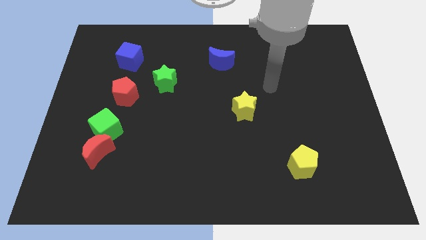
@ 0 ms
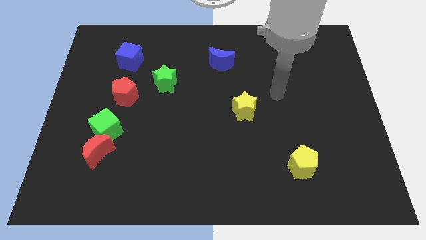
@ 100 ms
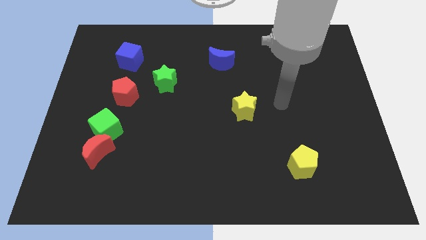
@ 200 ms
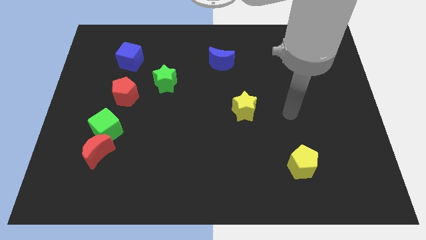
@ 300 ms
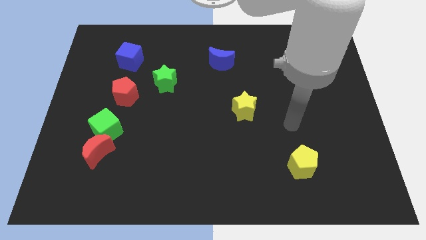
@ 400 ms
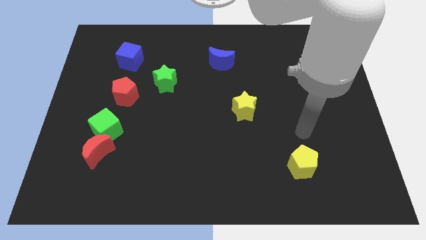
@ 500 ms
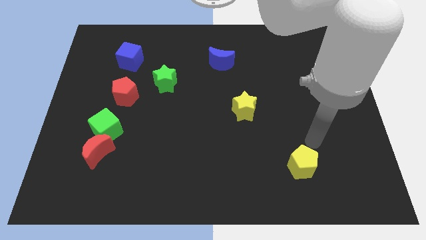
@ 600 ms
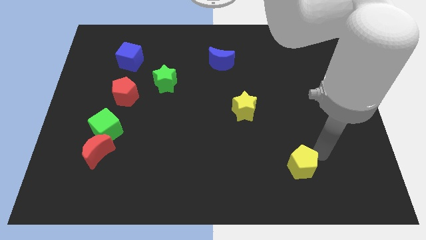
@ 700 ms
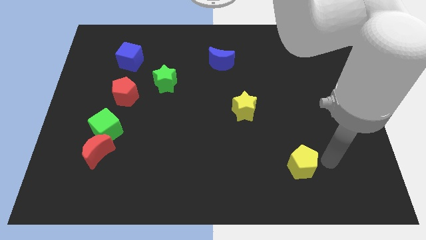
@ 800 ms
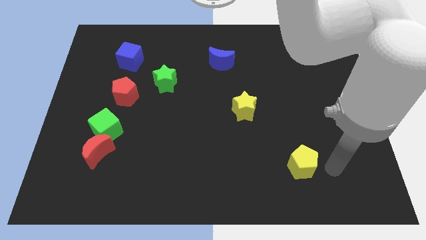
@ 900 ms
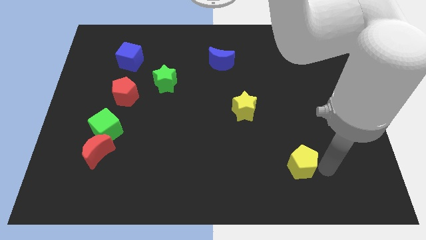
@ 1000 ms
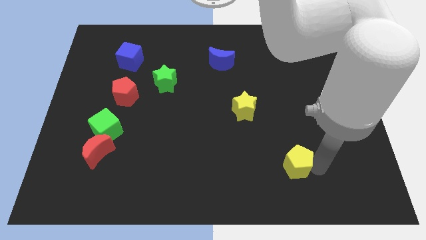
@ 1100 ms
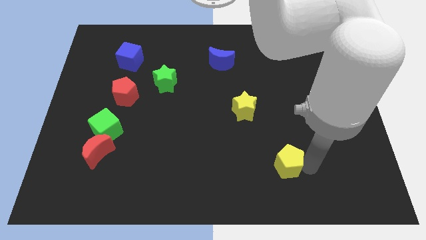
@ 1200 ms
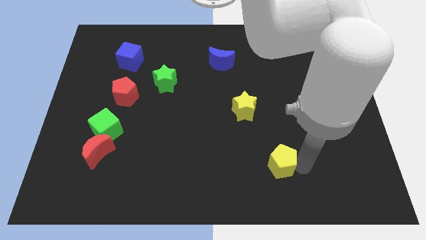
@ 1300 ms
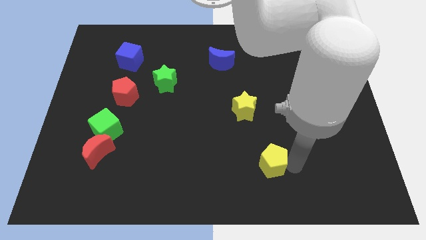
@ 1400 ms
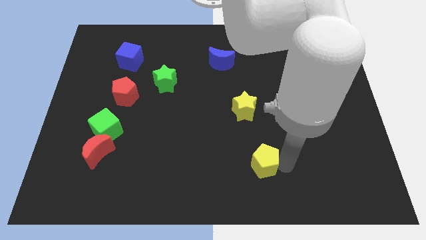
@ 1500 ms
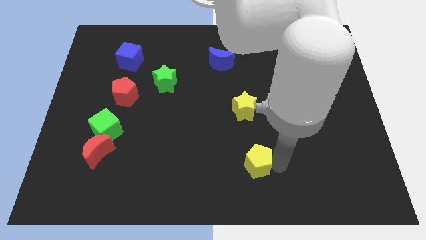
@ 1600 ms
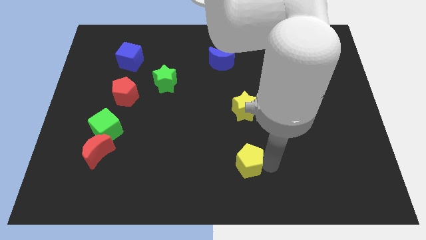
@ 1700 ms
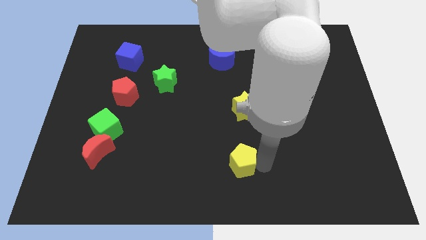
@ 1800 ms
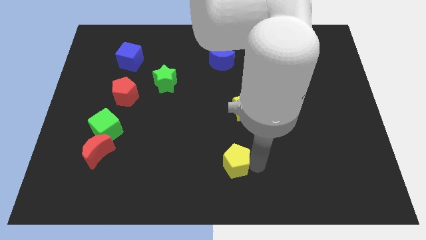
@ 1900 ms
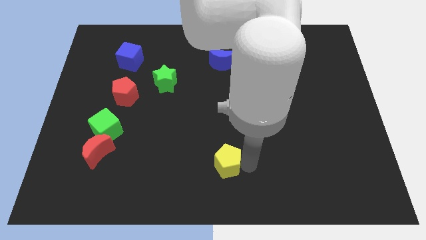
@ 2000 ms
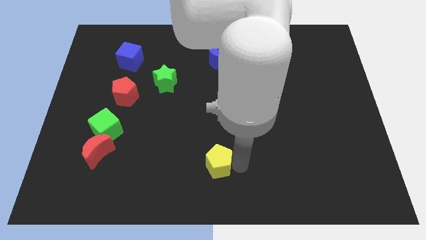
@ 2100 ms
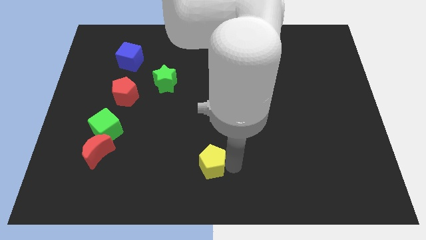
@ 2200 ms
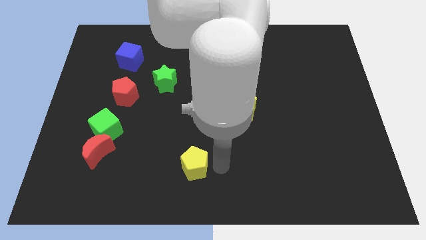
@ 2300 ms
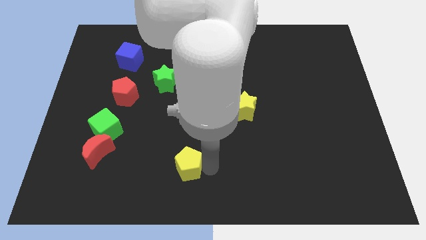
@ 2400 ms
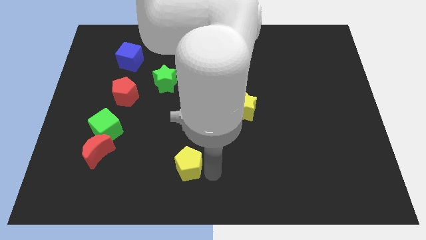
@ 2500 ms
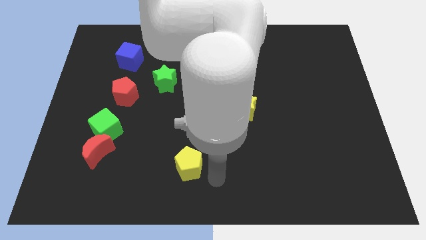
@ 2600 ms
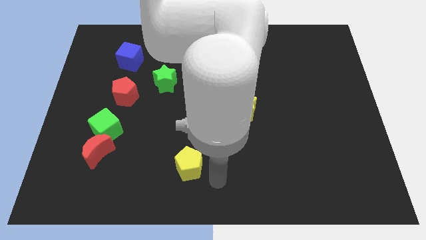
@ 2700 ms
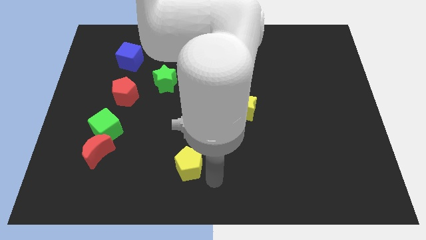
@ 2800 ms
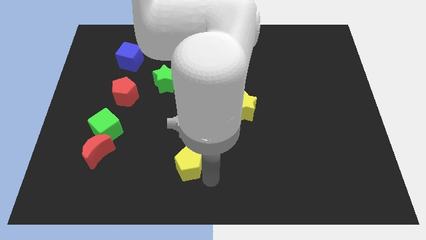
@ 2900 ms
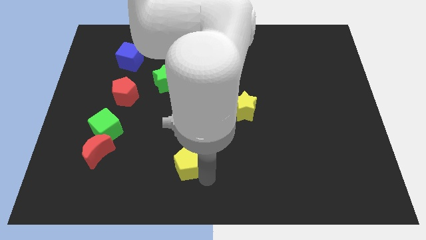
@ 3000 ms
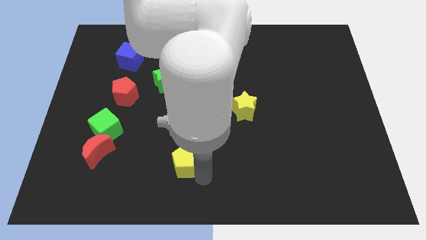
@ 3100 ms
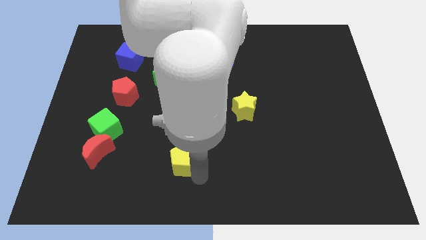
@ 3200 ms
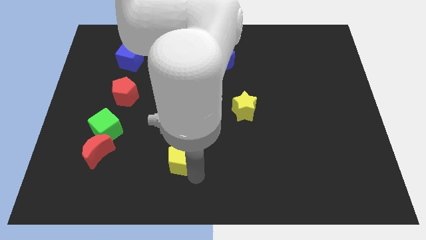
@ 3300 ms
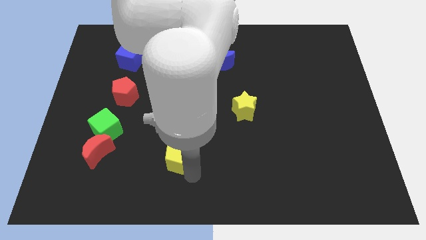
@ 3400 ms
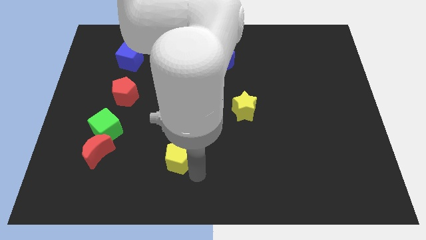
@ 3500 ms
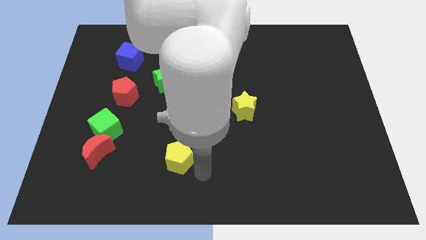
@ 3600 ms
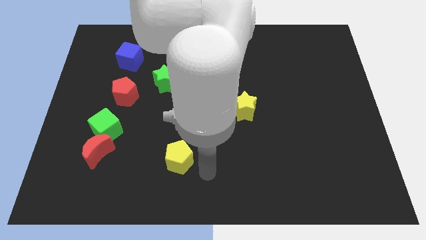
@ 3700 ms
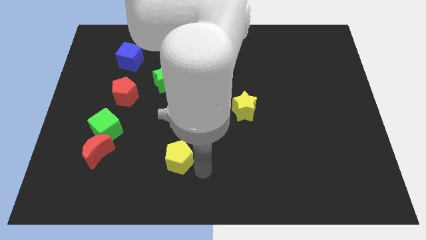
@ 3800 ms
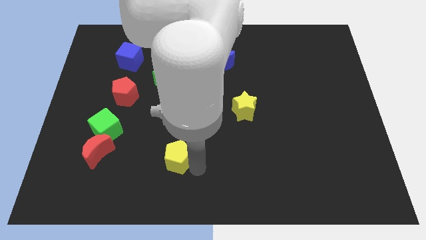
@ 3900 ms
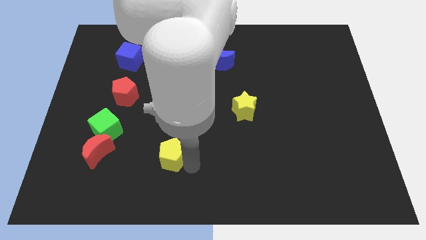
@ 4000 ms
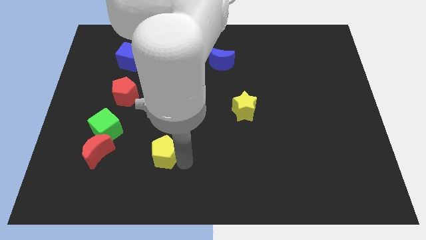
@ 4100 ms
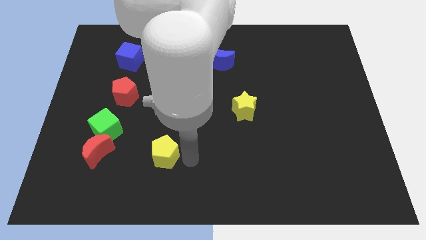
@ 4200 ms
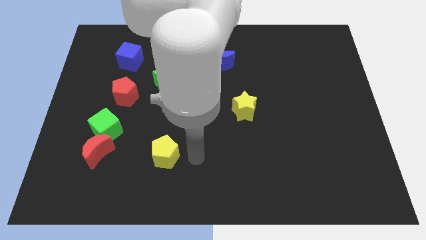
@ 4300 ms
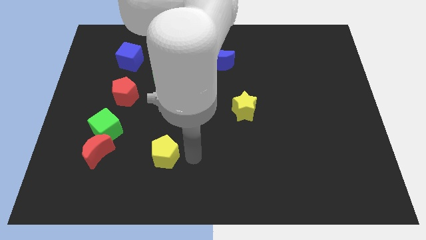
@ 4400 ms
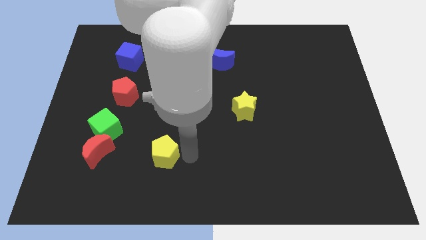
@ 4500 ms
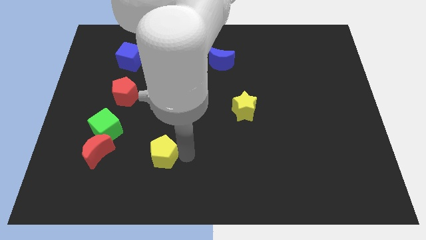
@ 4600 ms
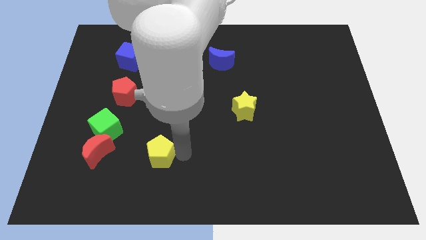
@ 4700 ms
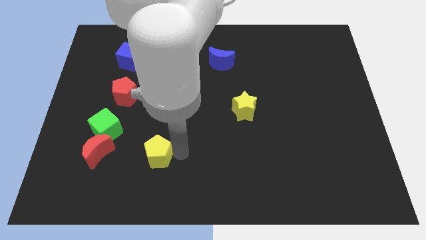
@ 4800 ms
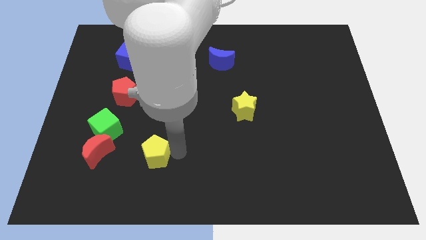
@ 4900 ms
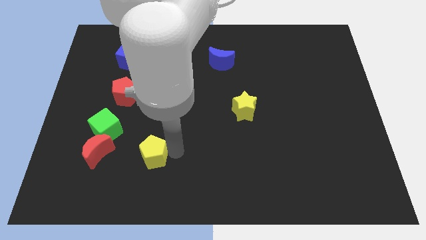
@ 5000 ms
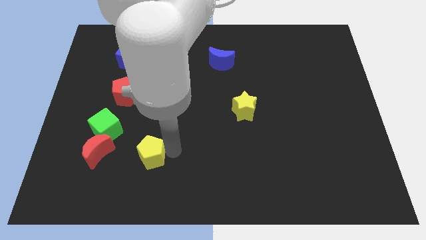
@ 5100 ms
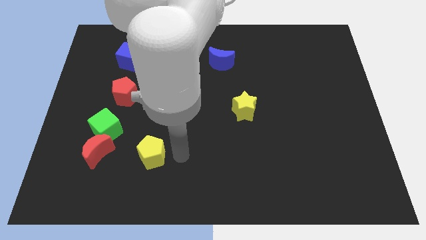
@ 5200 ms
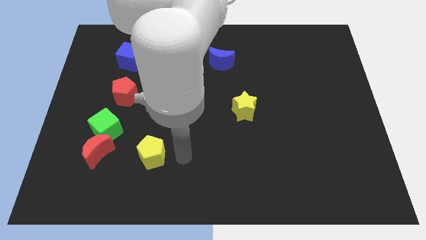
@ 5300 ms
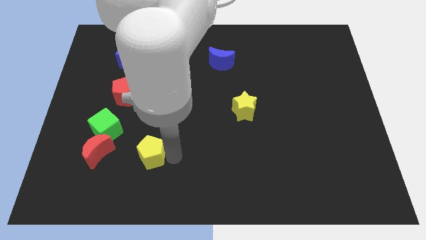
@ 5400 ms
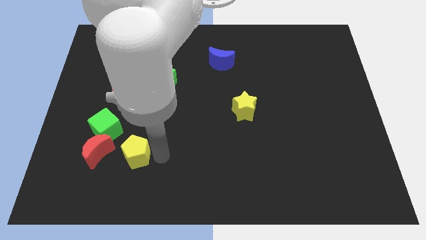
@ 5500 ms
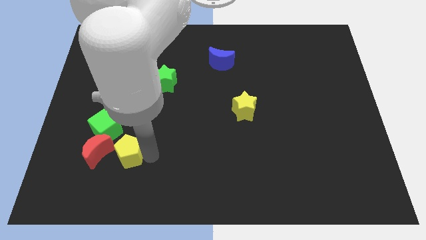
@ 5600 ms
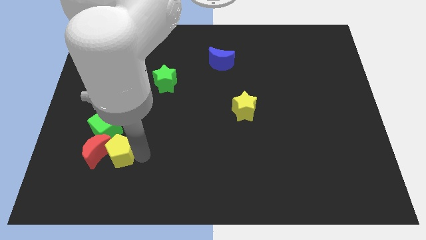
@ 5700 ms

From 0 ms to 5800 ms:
put the yellow pentagon close to the red moon

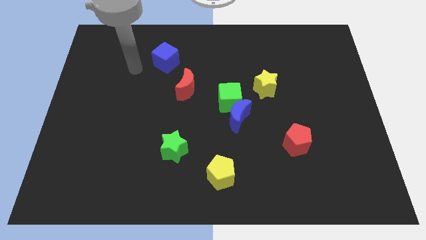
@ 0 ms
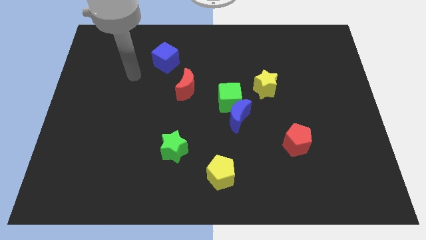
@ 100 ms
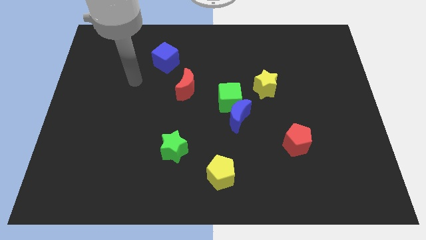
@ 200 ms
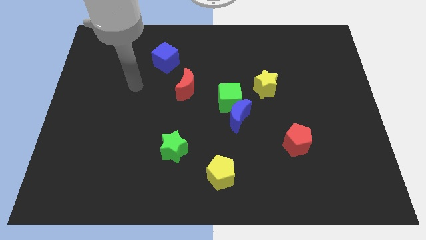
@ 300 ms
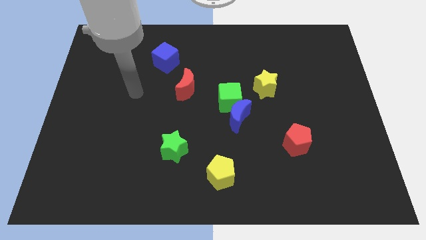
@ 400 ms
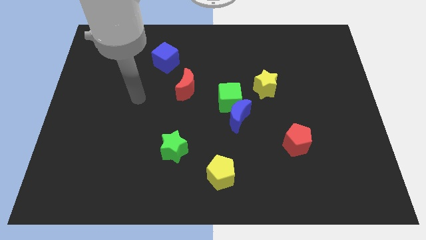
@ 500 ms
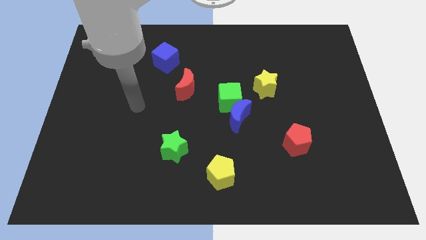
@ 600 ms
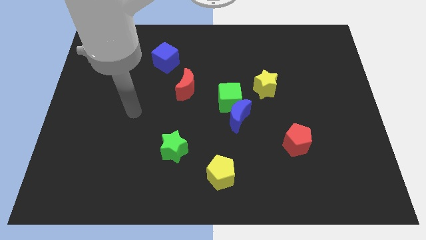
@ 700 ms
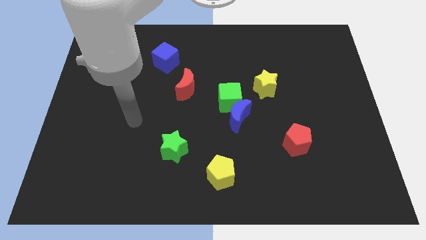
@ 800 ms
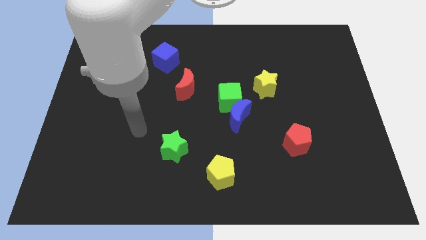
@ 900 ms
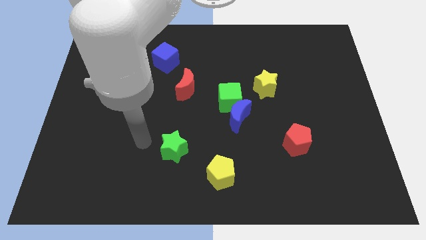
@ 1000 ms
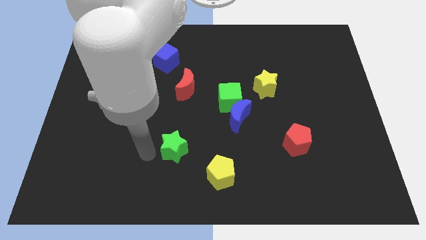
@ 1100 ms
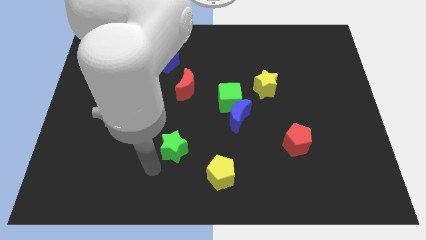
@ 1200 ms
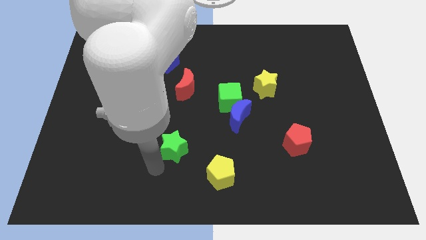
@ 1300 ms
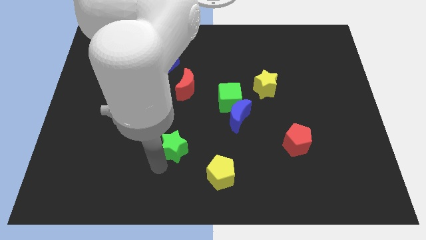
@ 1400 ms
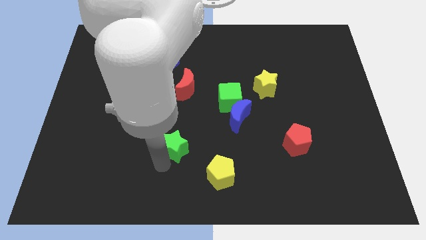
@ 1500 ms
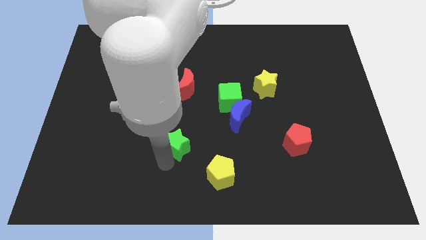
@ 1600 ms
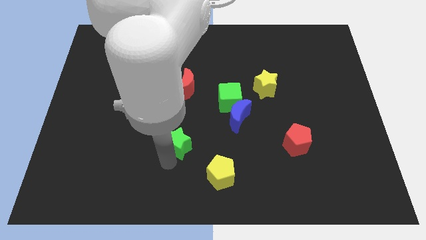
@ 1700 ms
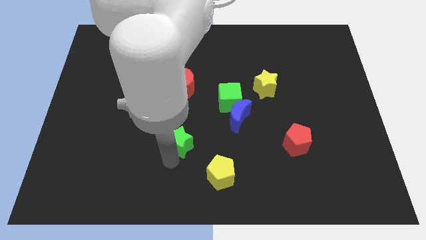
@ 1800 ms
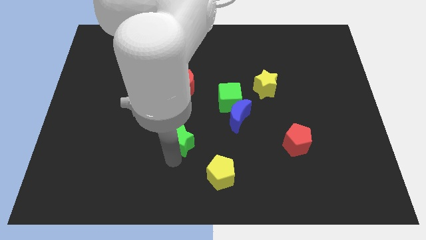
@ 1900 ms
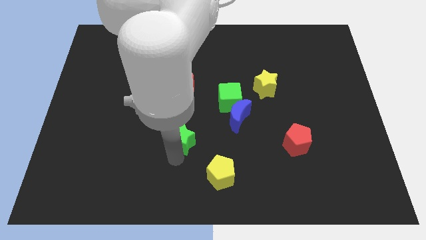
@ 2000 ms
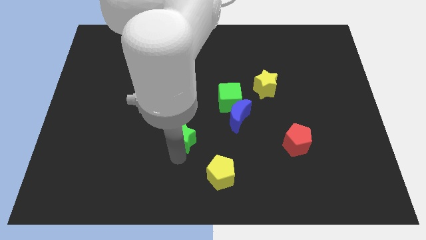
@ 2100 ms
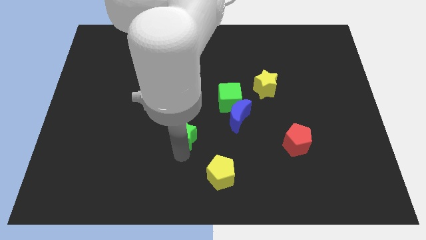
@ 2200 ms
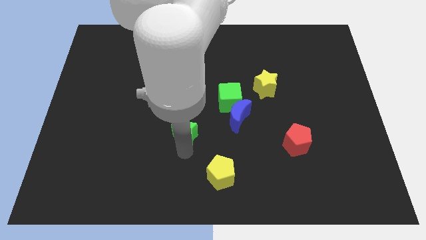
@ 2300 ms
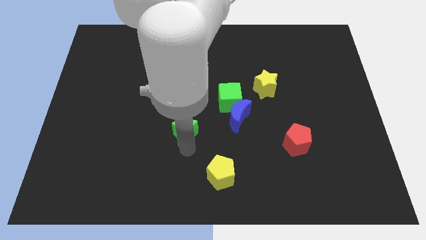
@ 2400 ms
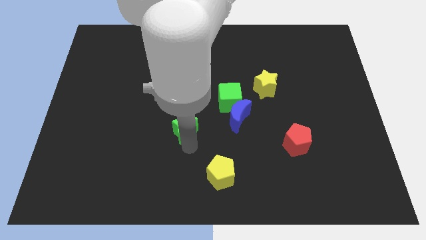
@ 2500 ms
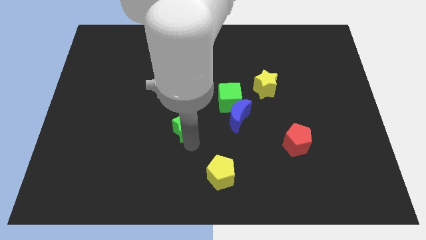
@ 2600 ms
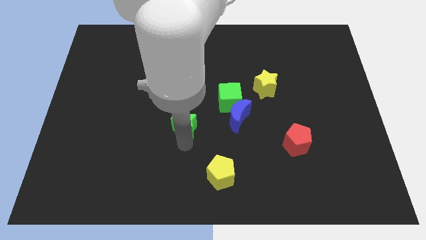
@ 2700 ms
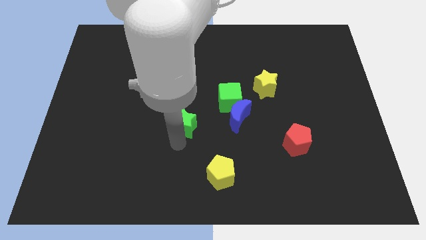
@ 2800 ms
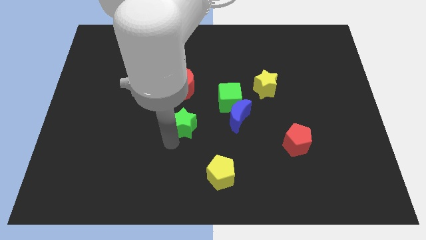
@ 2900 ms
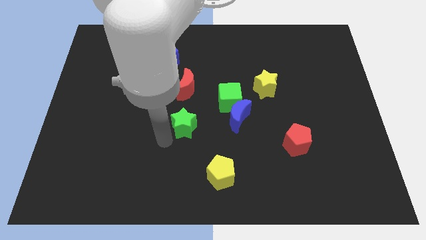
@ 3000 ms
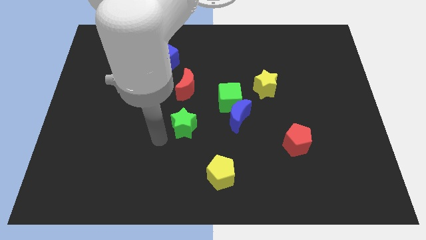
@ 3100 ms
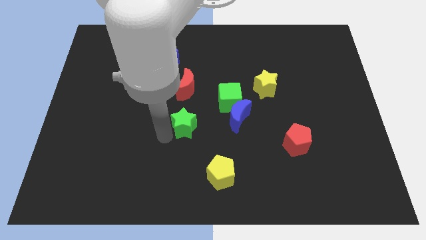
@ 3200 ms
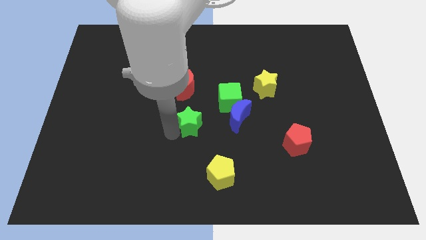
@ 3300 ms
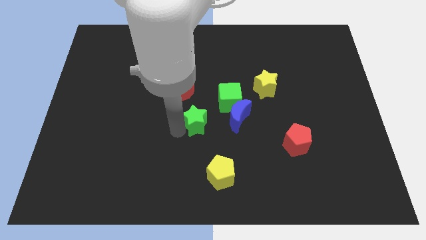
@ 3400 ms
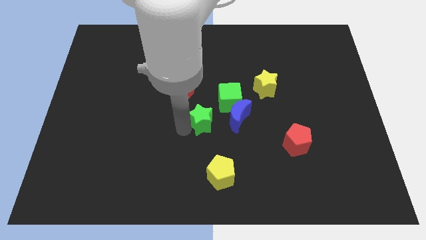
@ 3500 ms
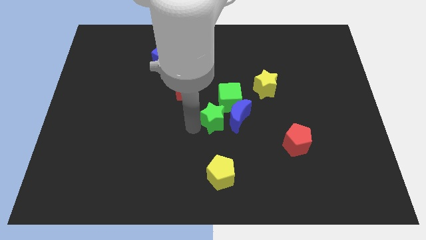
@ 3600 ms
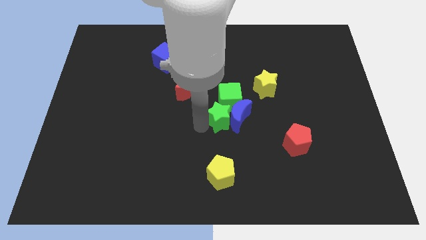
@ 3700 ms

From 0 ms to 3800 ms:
put the green star towards the green cube
